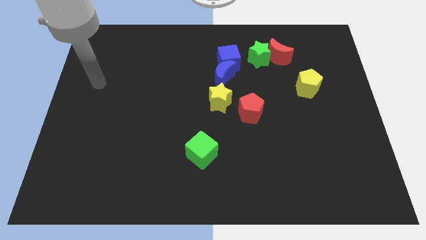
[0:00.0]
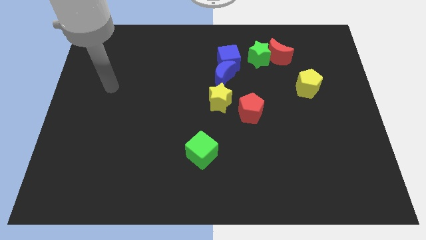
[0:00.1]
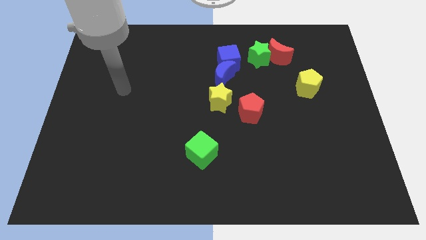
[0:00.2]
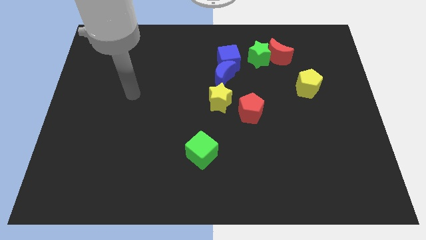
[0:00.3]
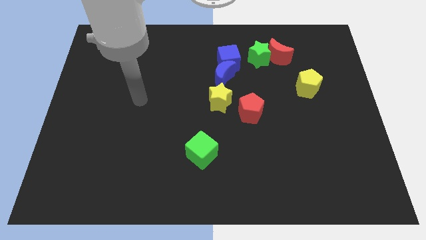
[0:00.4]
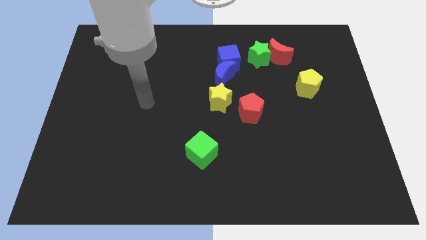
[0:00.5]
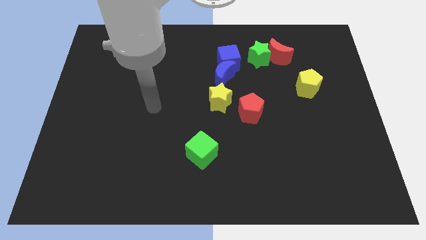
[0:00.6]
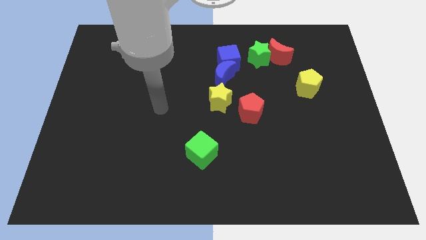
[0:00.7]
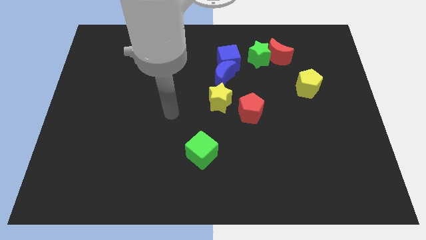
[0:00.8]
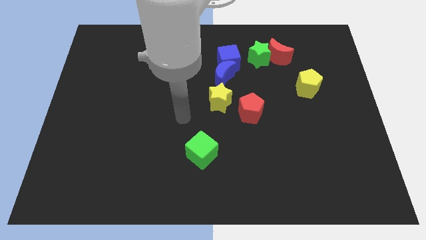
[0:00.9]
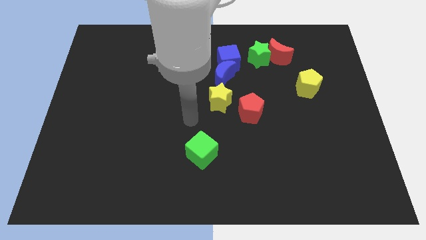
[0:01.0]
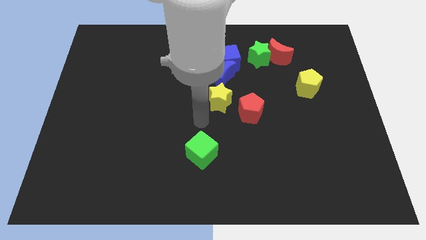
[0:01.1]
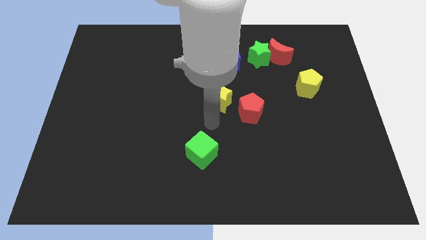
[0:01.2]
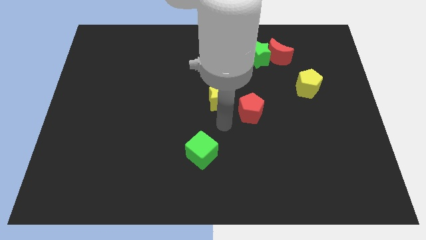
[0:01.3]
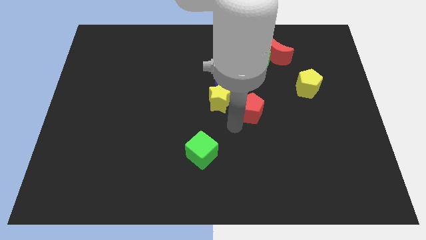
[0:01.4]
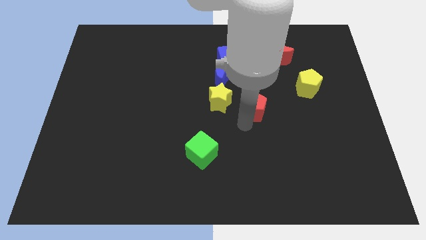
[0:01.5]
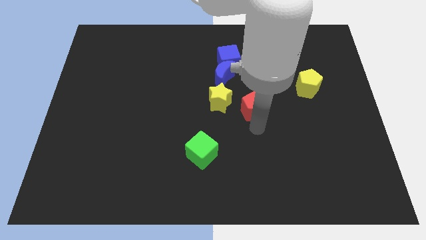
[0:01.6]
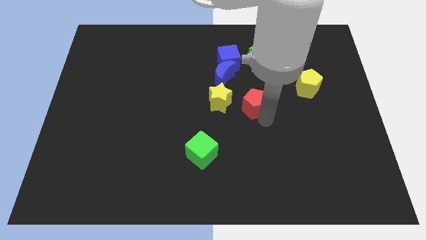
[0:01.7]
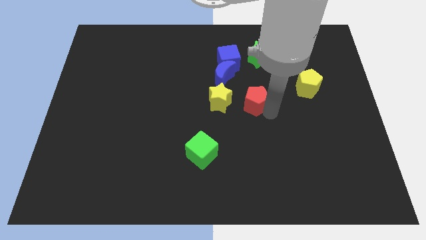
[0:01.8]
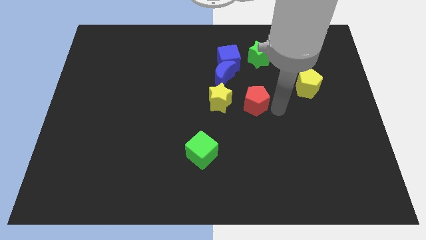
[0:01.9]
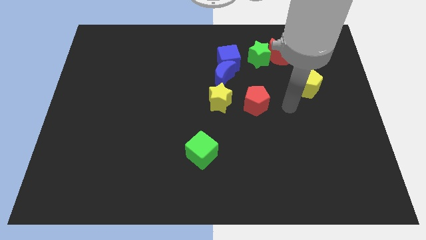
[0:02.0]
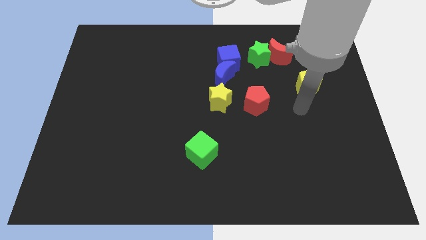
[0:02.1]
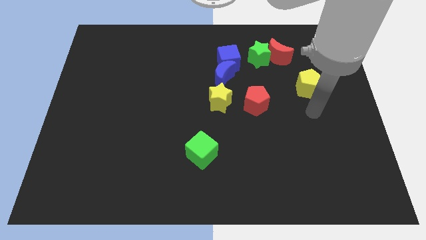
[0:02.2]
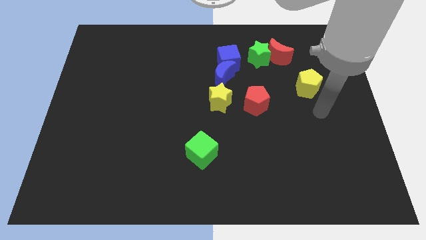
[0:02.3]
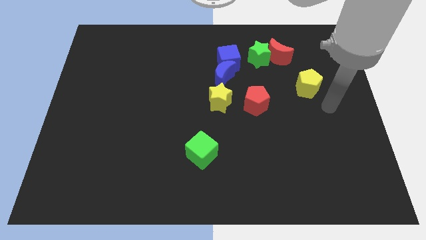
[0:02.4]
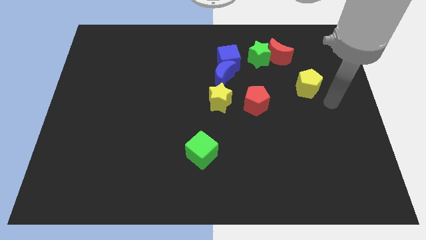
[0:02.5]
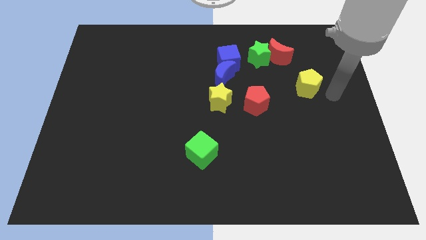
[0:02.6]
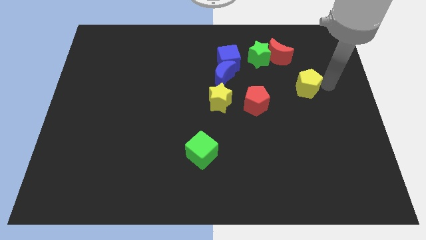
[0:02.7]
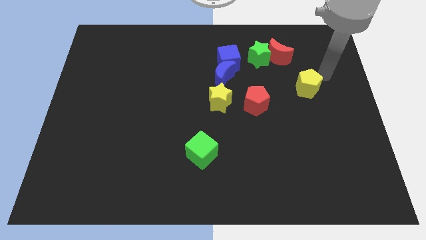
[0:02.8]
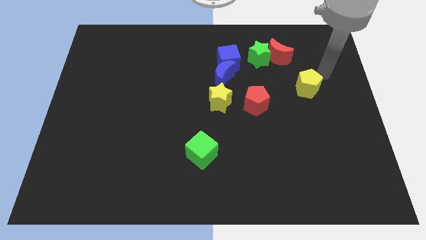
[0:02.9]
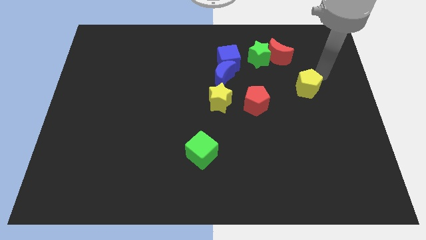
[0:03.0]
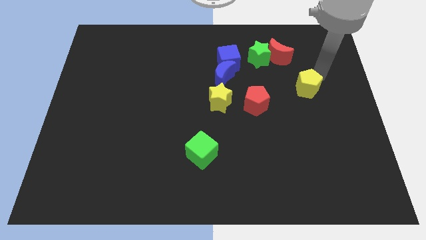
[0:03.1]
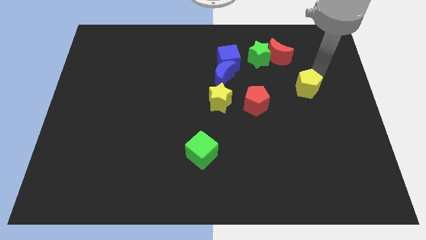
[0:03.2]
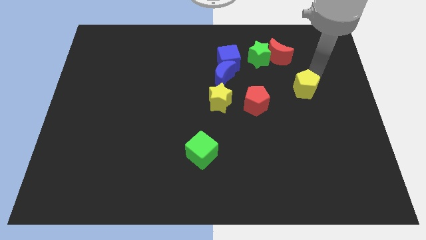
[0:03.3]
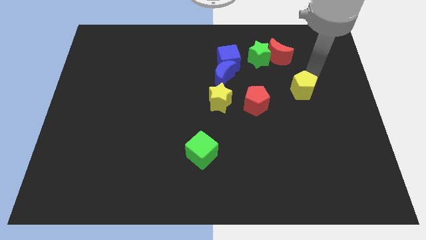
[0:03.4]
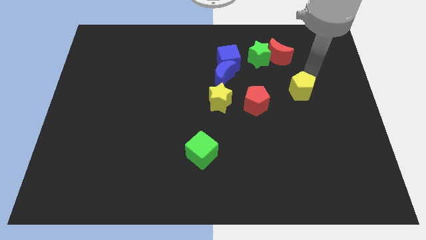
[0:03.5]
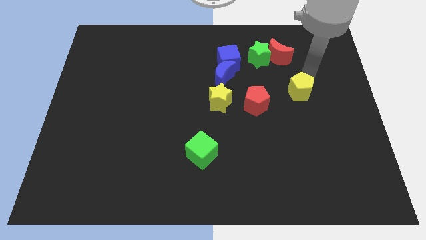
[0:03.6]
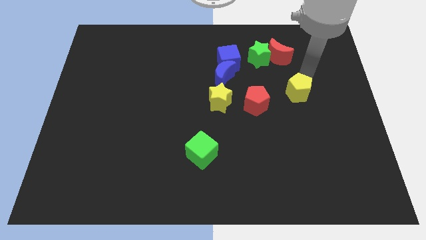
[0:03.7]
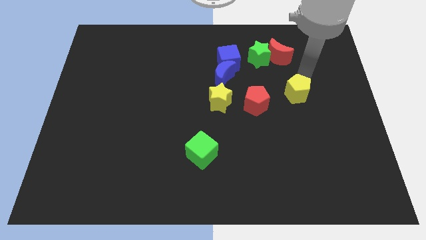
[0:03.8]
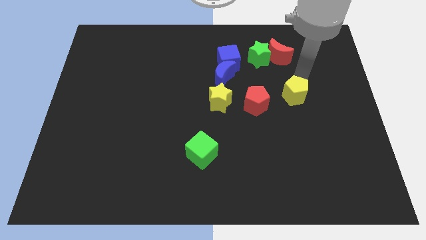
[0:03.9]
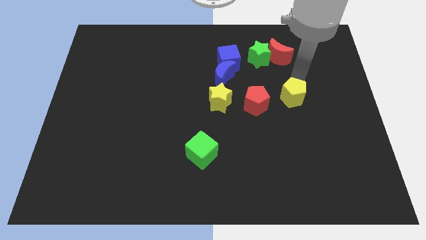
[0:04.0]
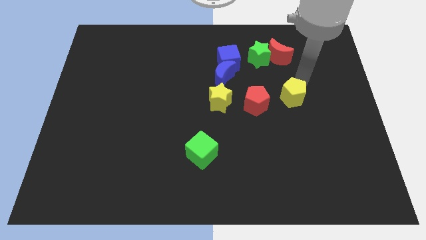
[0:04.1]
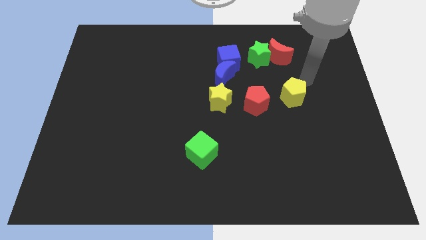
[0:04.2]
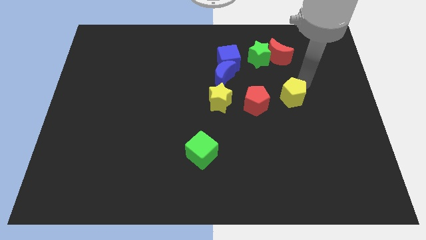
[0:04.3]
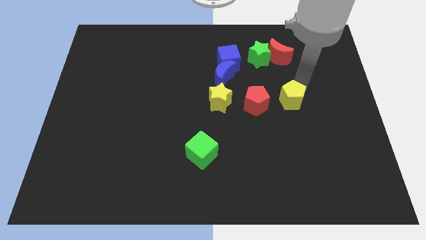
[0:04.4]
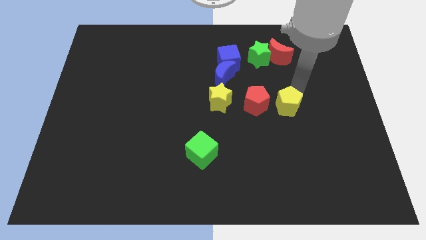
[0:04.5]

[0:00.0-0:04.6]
push the yellow pentagon downwards and left diagonally slightly

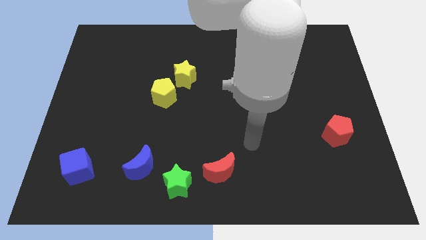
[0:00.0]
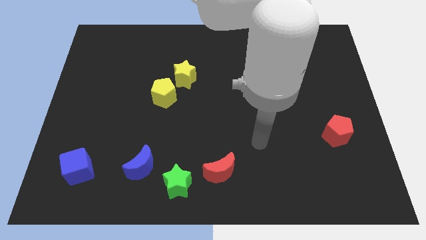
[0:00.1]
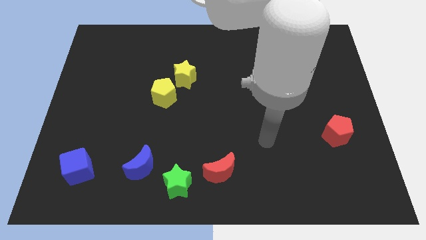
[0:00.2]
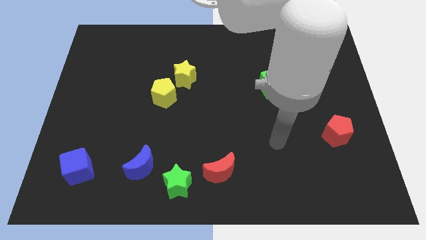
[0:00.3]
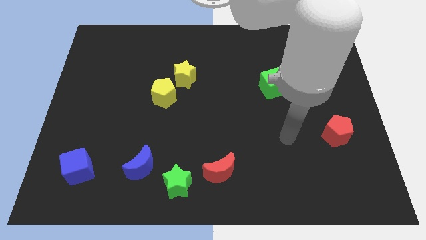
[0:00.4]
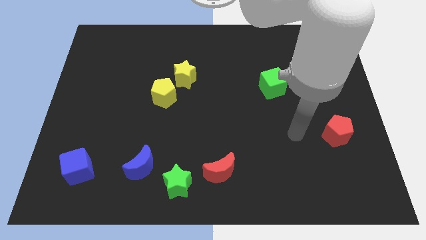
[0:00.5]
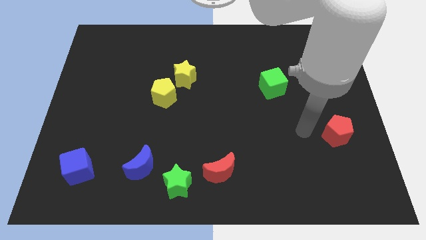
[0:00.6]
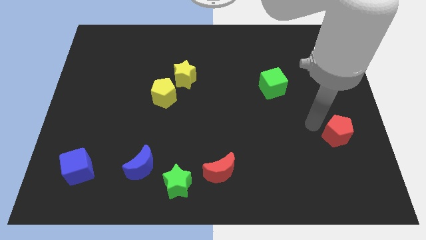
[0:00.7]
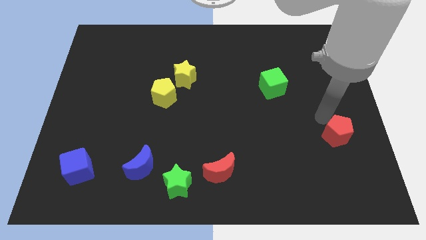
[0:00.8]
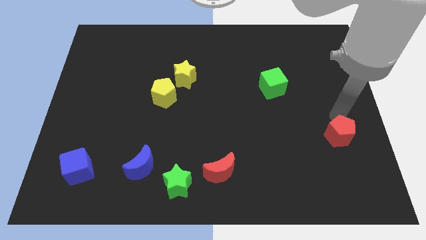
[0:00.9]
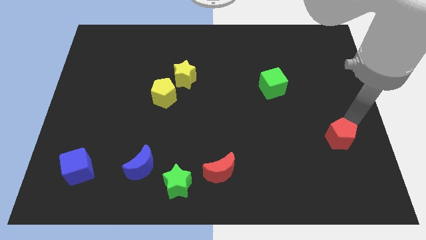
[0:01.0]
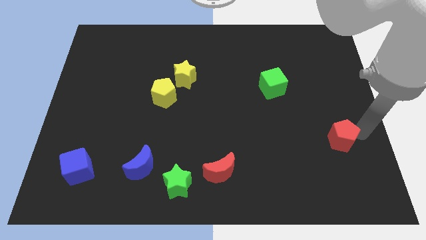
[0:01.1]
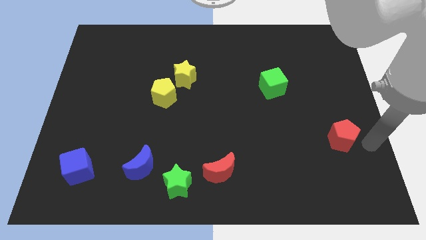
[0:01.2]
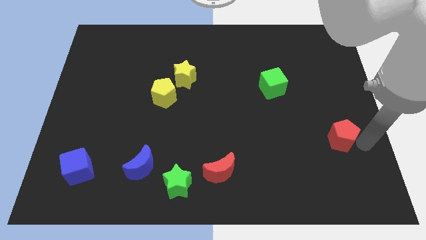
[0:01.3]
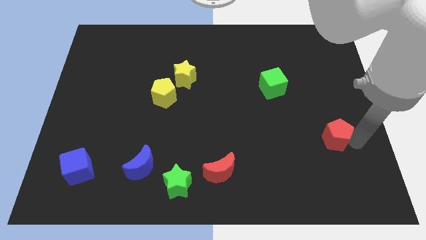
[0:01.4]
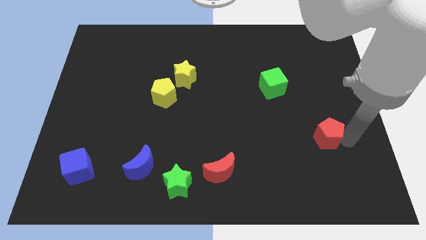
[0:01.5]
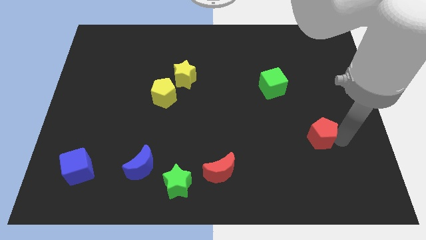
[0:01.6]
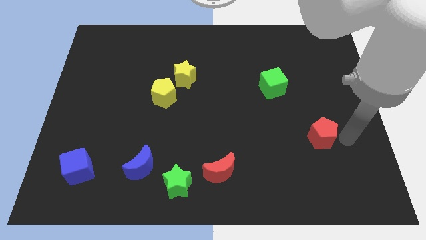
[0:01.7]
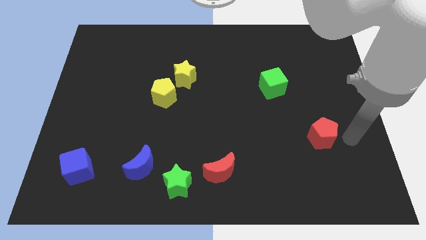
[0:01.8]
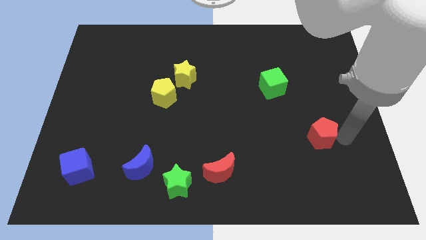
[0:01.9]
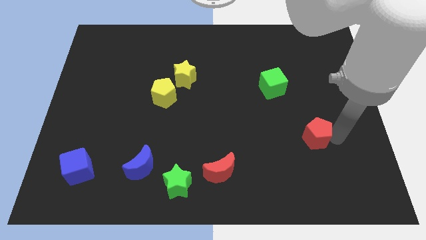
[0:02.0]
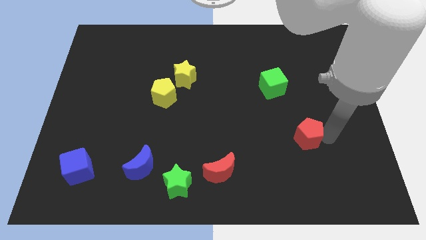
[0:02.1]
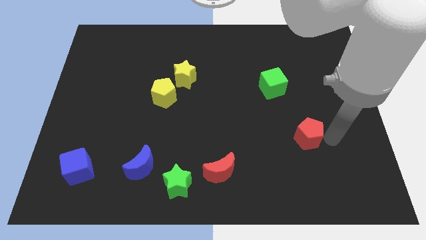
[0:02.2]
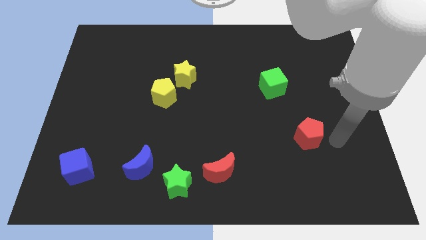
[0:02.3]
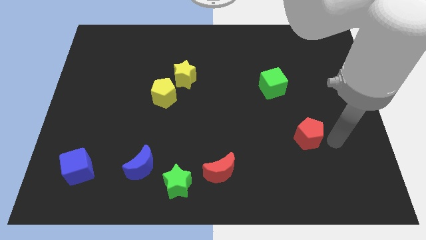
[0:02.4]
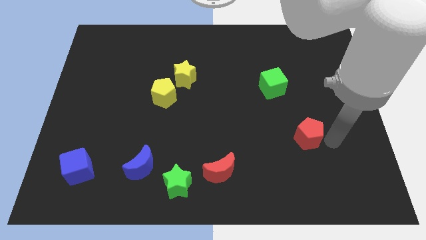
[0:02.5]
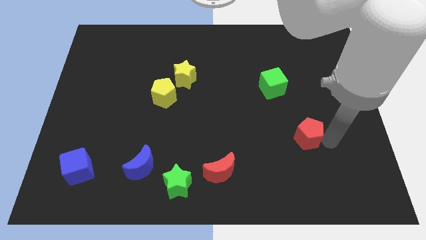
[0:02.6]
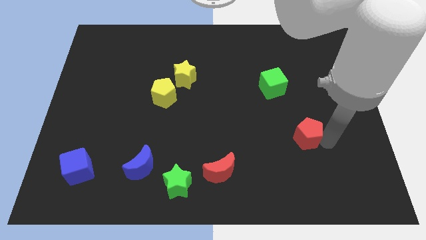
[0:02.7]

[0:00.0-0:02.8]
slightly slide the red pentagon left

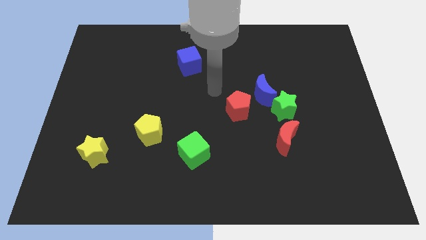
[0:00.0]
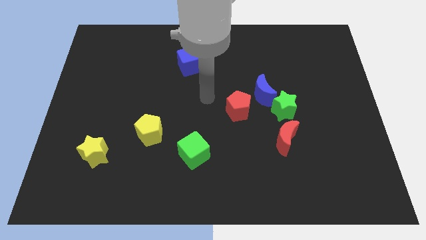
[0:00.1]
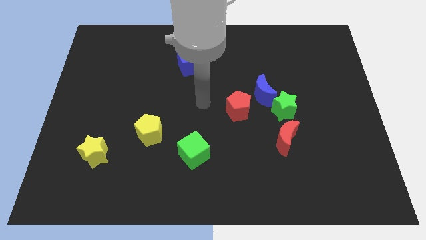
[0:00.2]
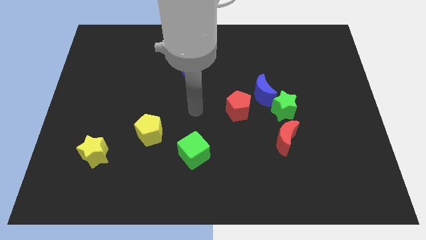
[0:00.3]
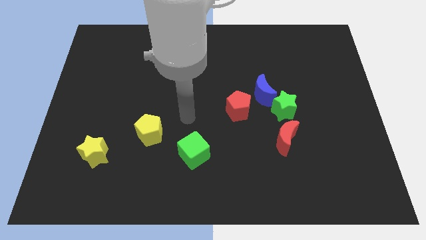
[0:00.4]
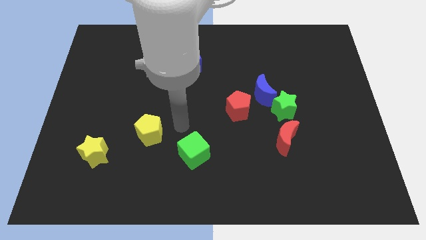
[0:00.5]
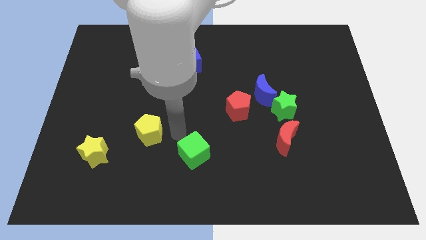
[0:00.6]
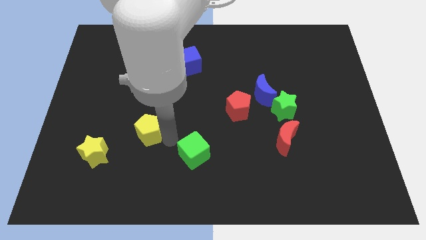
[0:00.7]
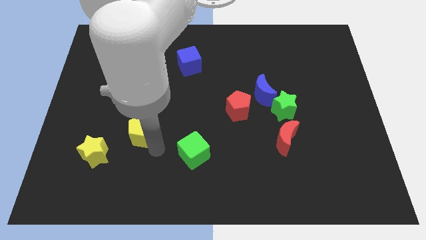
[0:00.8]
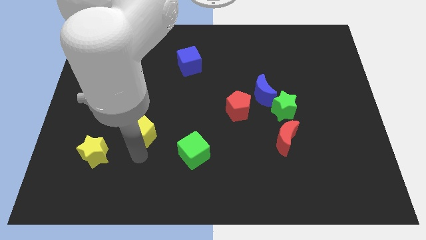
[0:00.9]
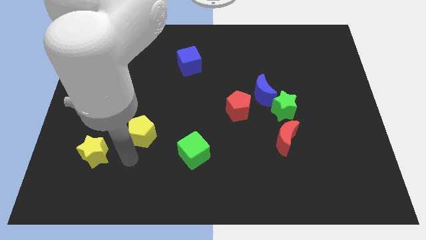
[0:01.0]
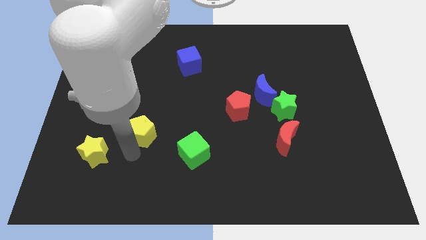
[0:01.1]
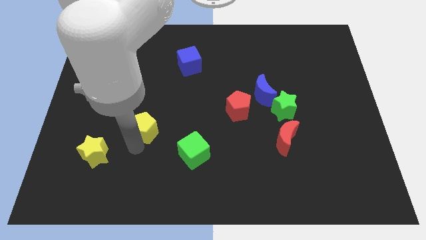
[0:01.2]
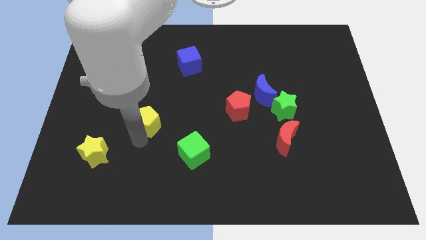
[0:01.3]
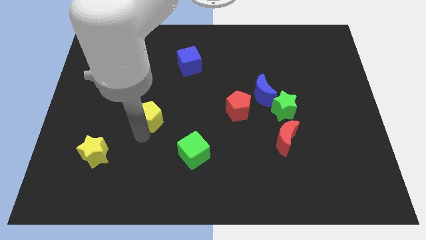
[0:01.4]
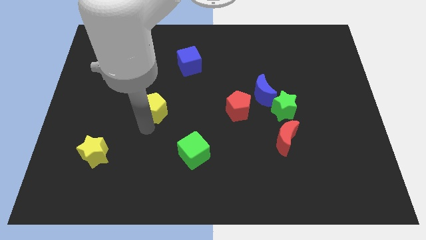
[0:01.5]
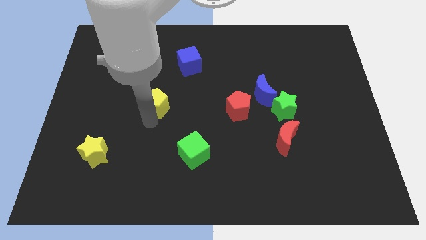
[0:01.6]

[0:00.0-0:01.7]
slide the yellow pentagon slightly upwards
